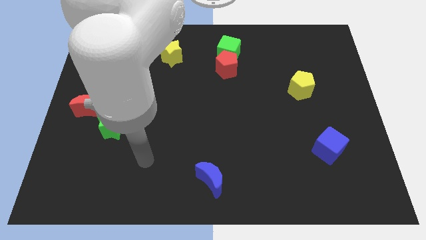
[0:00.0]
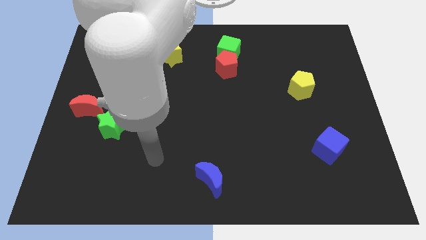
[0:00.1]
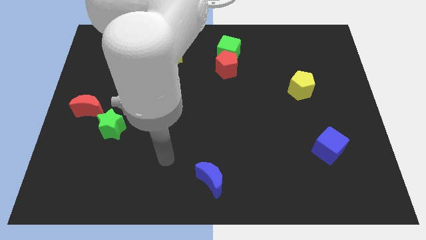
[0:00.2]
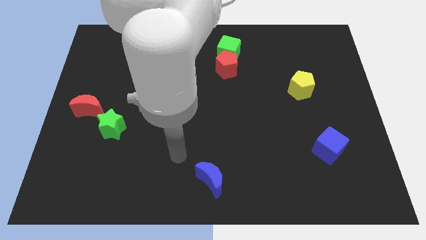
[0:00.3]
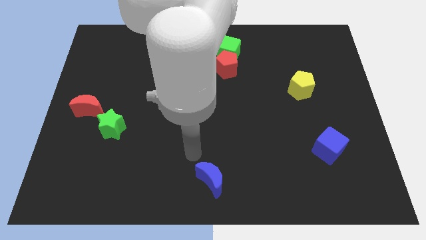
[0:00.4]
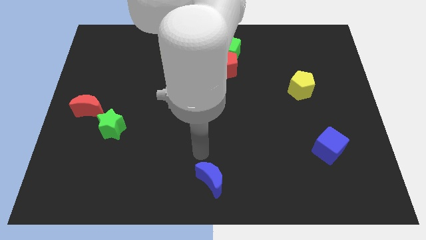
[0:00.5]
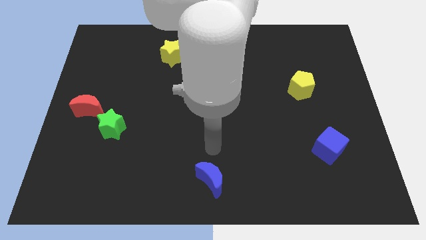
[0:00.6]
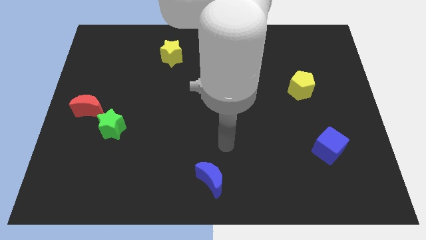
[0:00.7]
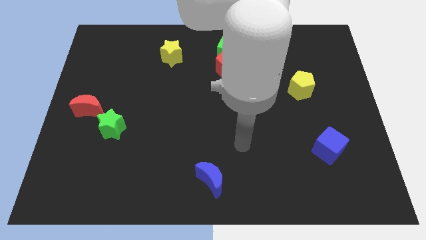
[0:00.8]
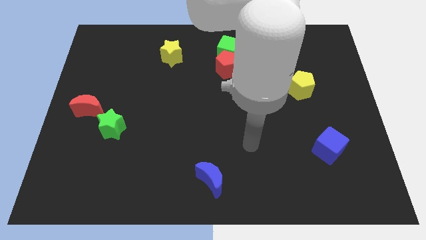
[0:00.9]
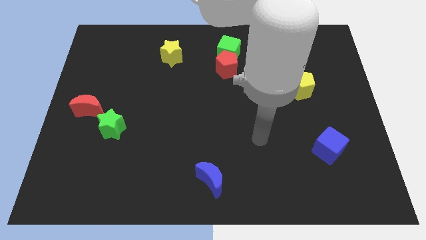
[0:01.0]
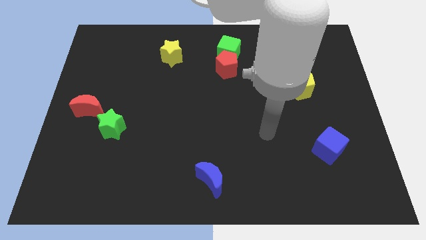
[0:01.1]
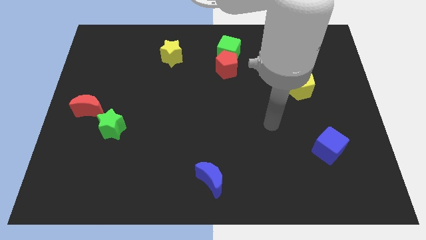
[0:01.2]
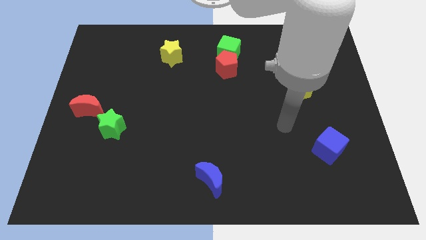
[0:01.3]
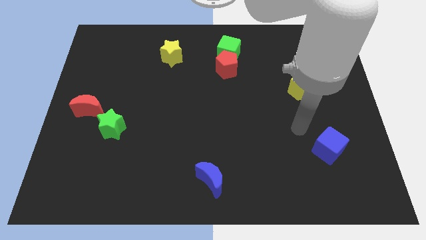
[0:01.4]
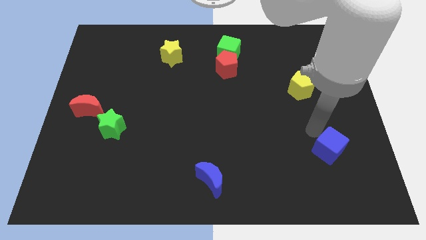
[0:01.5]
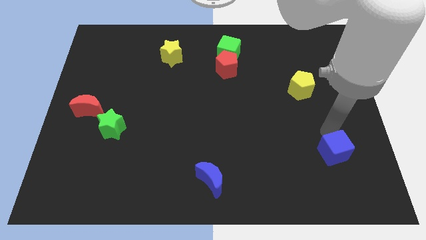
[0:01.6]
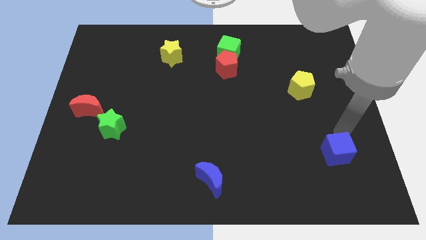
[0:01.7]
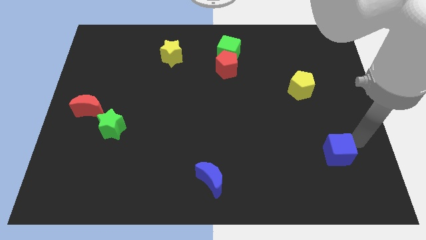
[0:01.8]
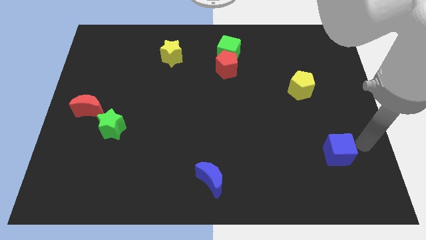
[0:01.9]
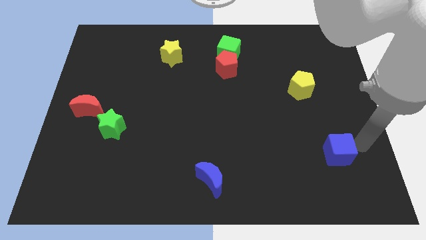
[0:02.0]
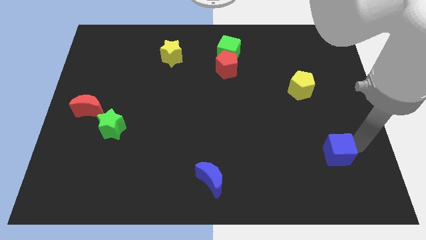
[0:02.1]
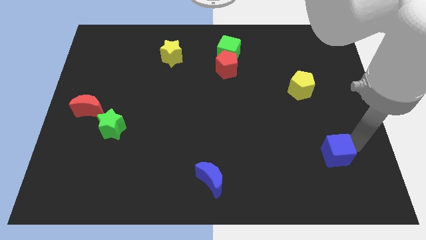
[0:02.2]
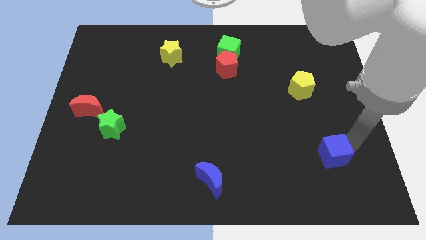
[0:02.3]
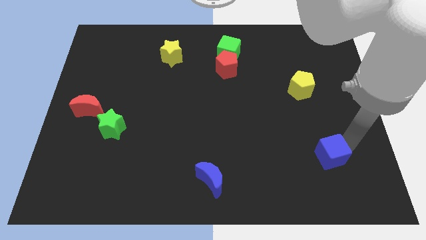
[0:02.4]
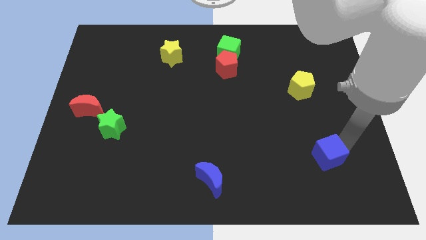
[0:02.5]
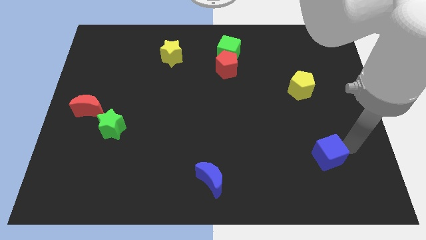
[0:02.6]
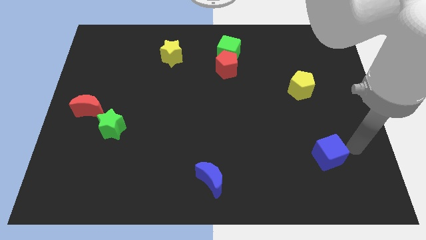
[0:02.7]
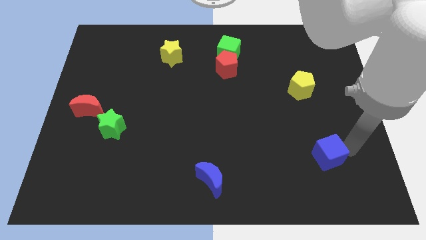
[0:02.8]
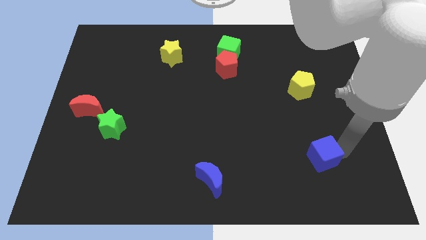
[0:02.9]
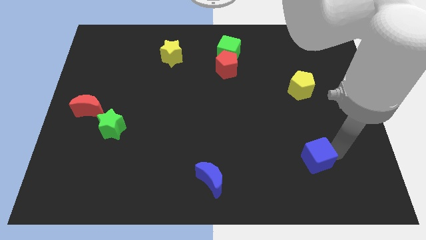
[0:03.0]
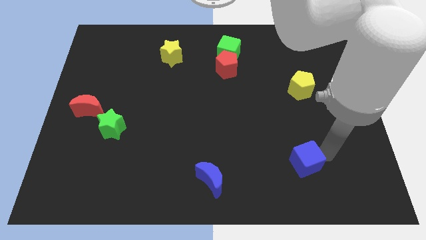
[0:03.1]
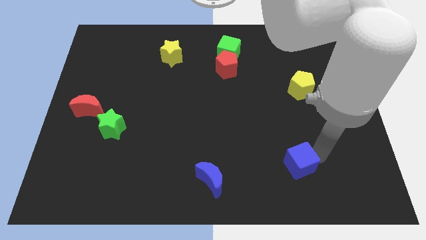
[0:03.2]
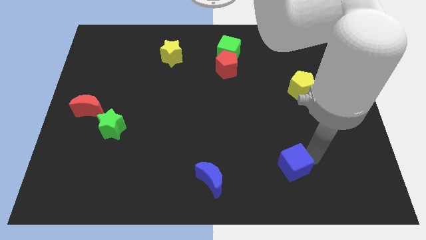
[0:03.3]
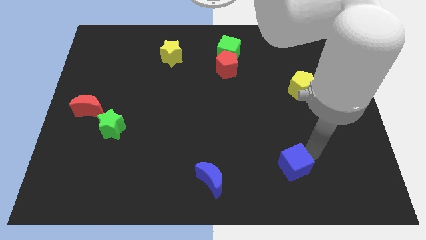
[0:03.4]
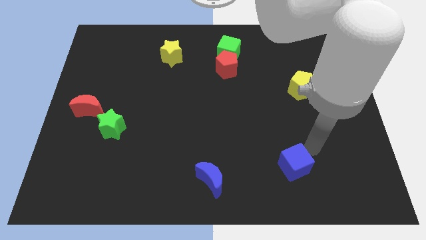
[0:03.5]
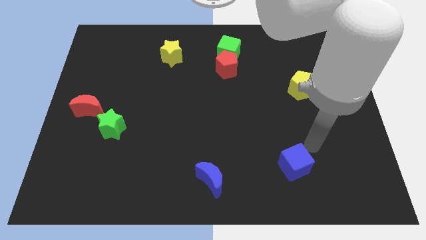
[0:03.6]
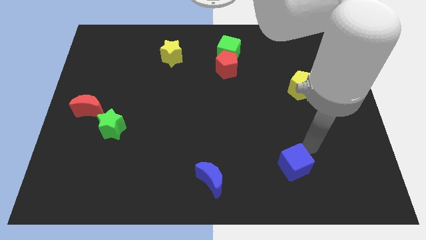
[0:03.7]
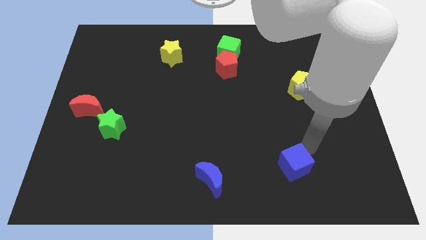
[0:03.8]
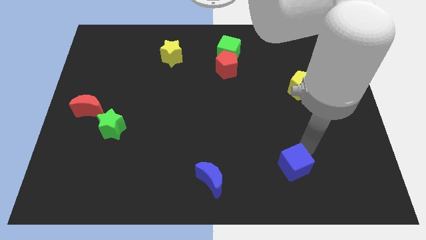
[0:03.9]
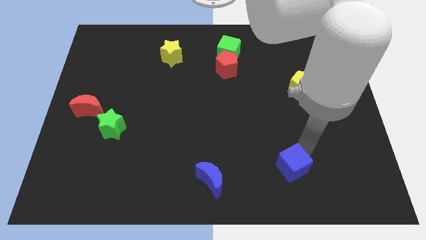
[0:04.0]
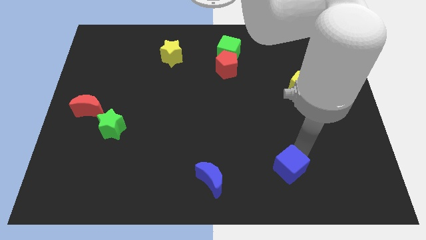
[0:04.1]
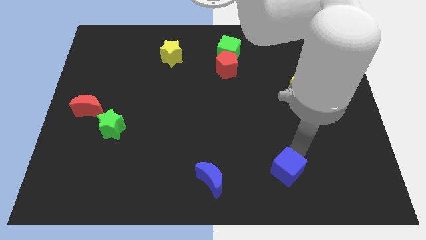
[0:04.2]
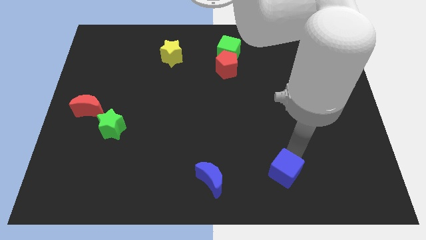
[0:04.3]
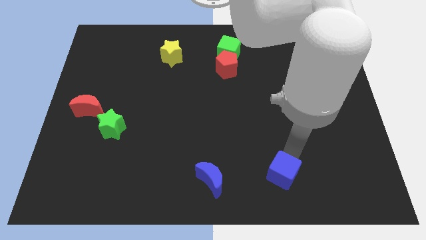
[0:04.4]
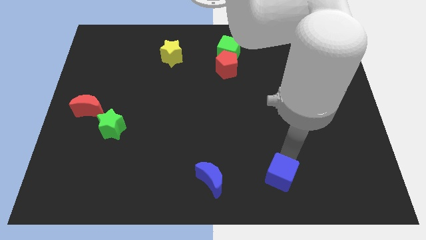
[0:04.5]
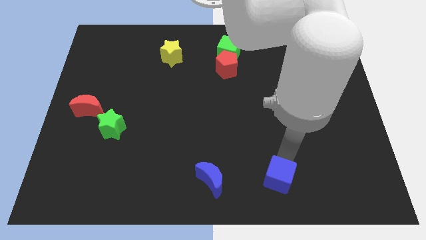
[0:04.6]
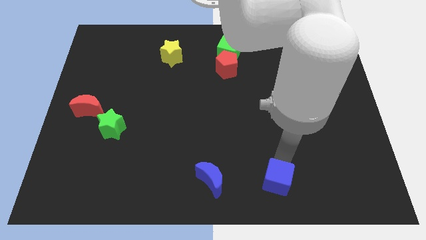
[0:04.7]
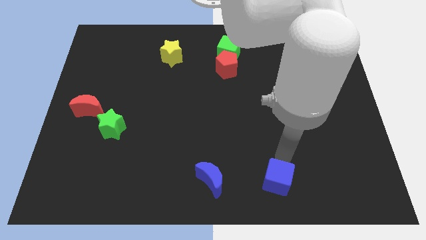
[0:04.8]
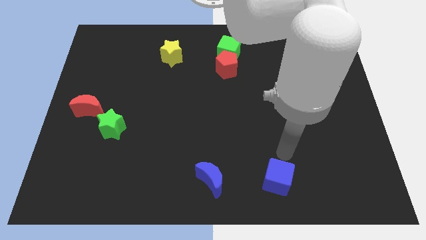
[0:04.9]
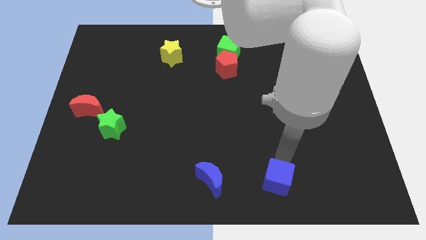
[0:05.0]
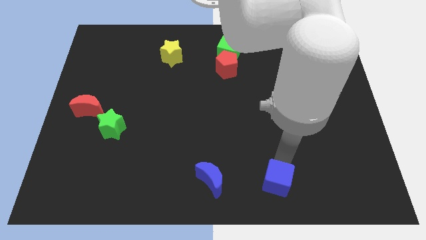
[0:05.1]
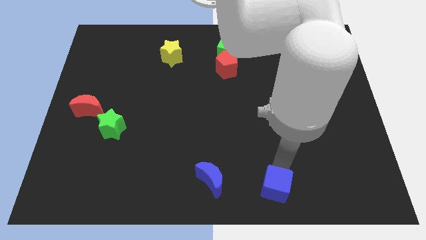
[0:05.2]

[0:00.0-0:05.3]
put the blue cube to the bottom side
